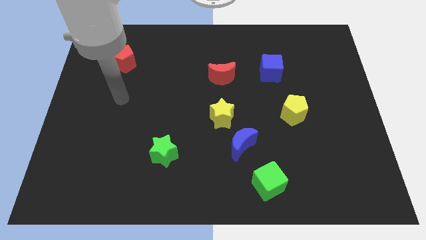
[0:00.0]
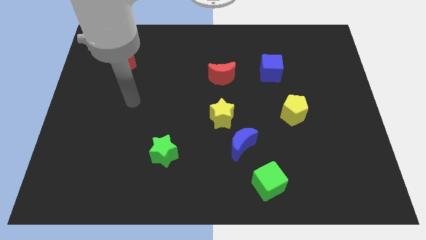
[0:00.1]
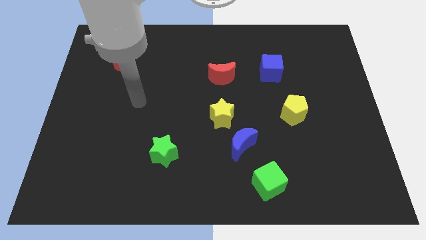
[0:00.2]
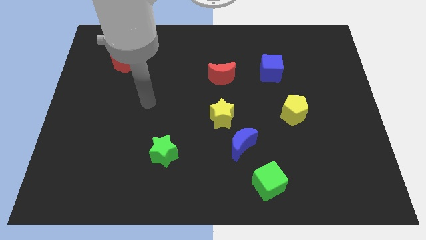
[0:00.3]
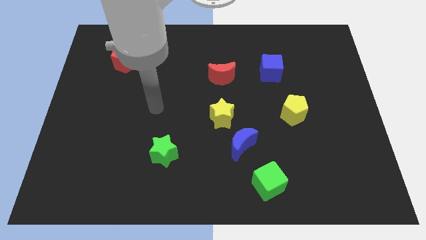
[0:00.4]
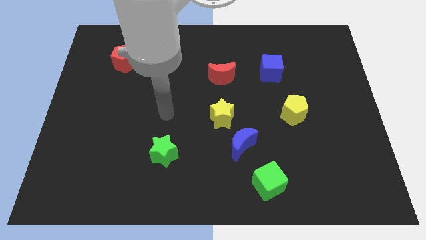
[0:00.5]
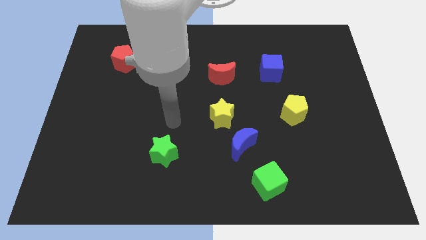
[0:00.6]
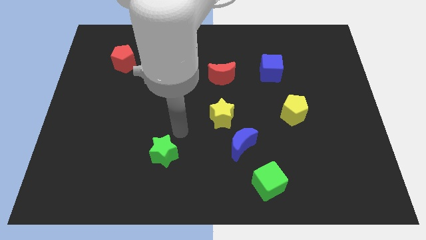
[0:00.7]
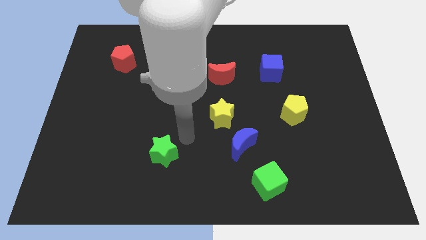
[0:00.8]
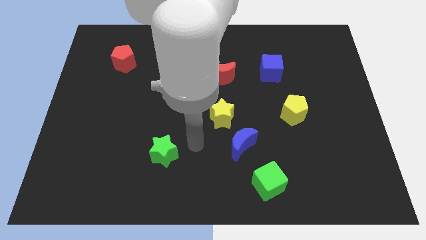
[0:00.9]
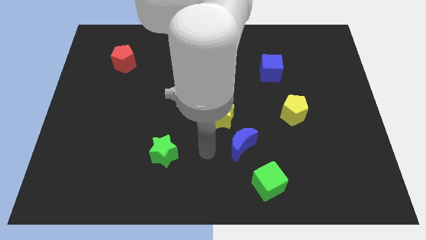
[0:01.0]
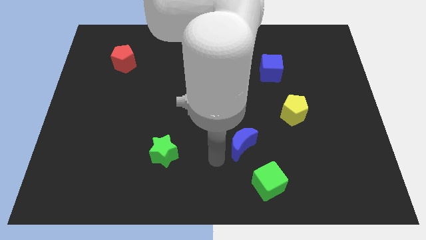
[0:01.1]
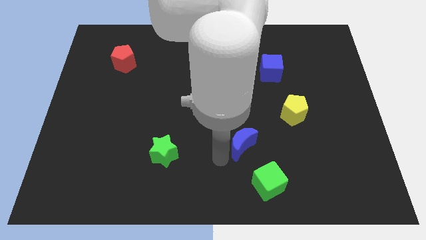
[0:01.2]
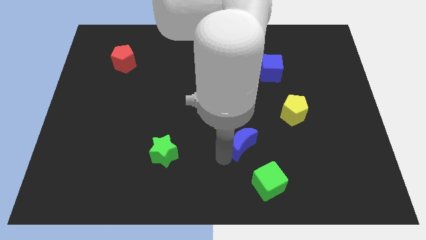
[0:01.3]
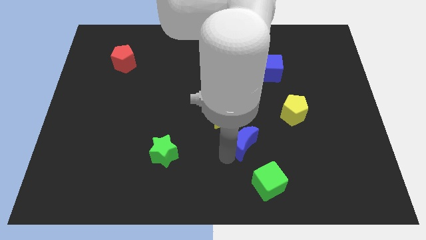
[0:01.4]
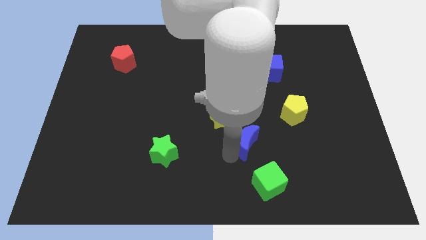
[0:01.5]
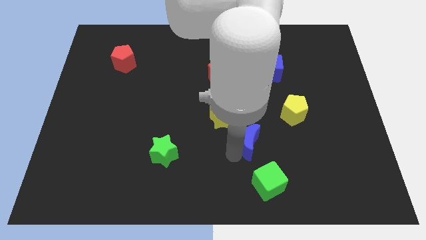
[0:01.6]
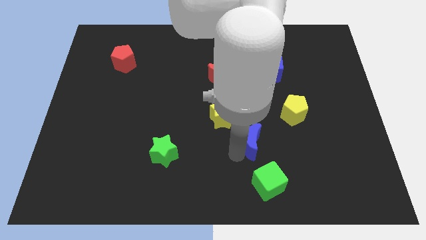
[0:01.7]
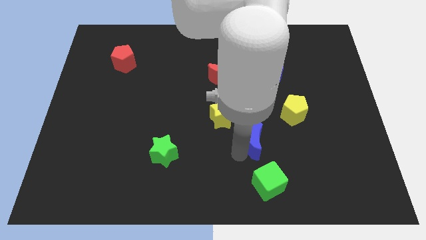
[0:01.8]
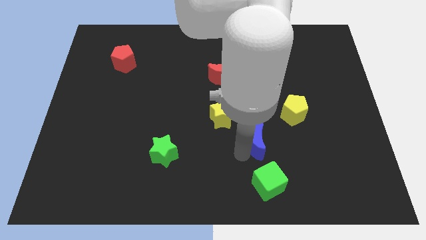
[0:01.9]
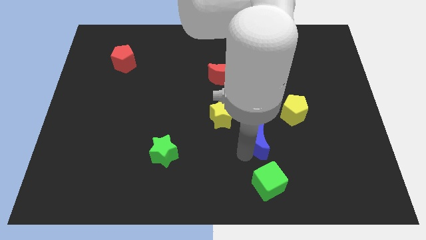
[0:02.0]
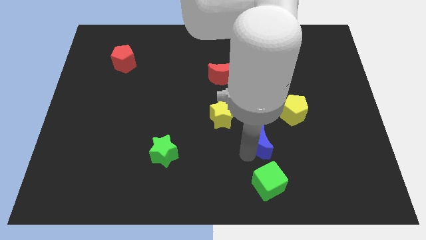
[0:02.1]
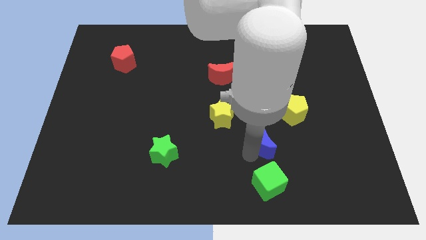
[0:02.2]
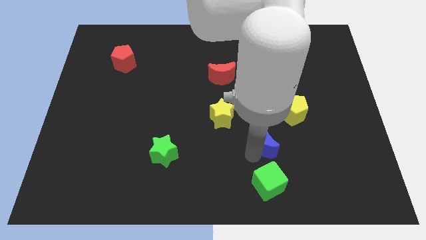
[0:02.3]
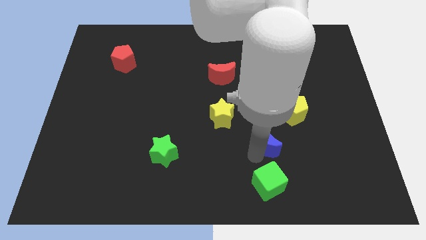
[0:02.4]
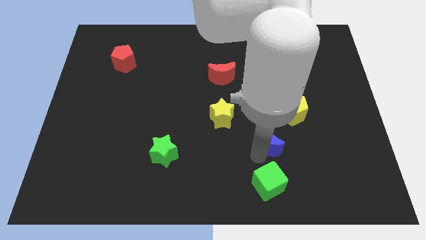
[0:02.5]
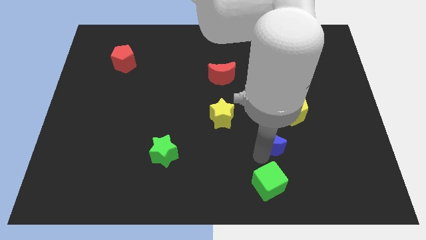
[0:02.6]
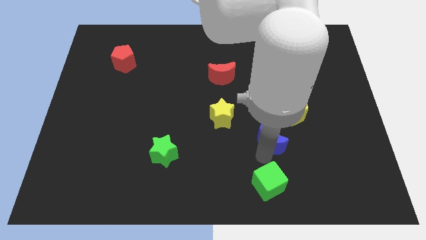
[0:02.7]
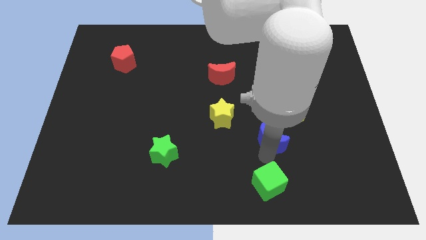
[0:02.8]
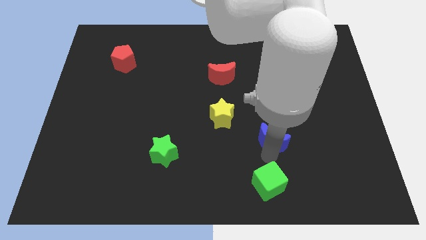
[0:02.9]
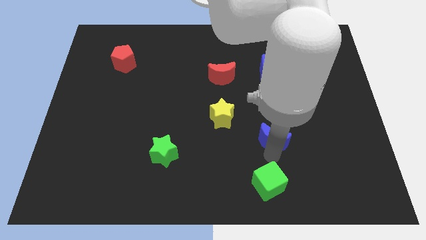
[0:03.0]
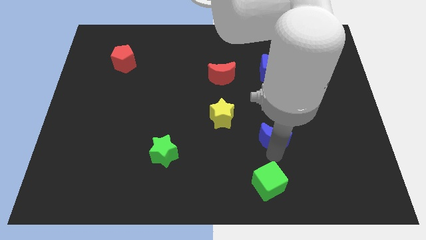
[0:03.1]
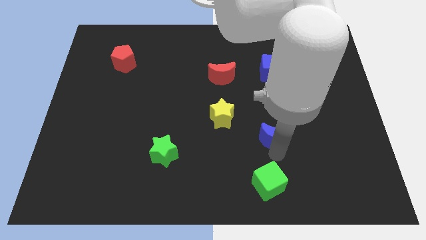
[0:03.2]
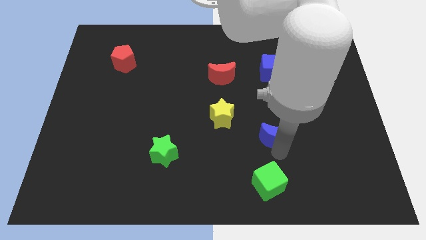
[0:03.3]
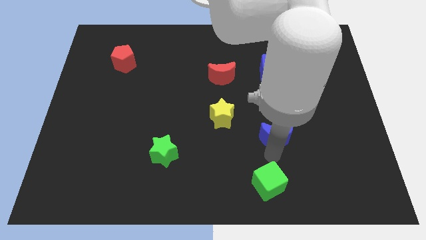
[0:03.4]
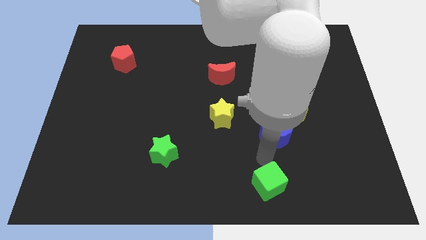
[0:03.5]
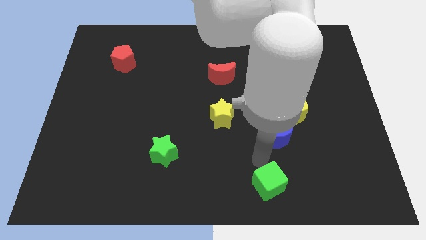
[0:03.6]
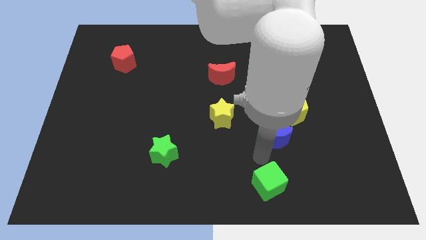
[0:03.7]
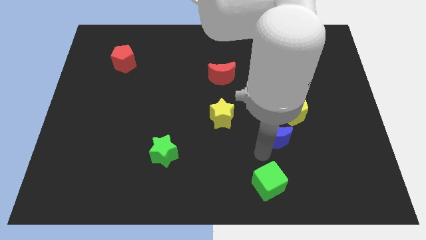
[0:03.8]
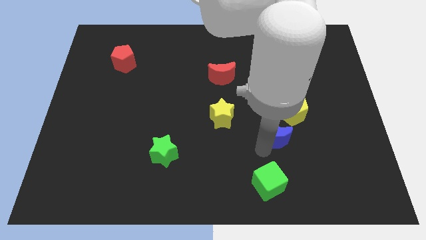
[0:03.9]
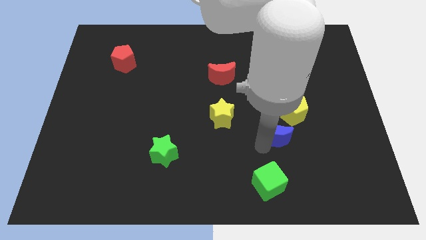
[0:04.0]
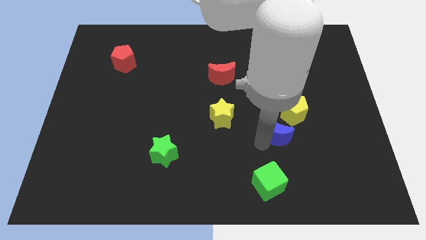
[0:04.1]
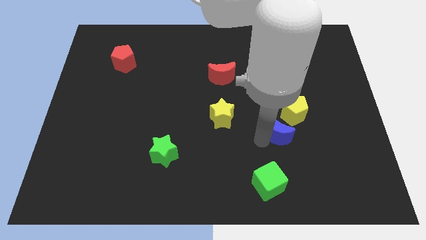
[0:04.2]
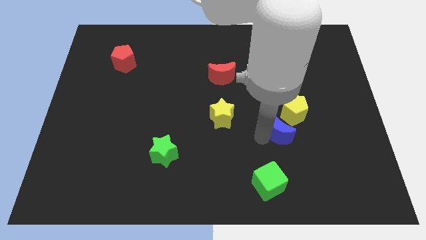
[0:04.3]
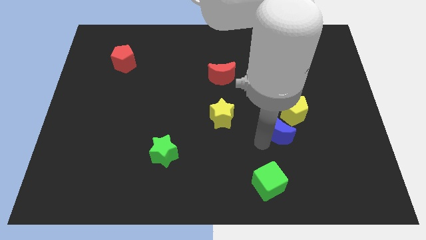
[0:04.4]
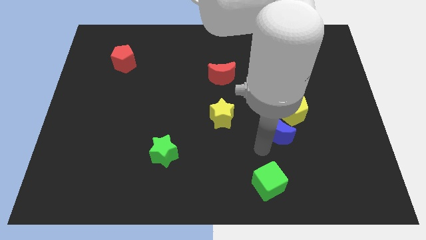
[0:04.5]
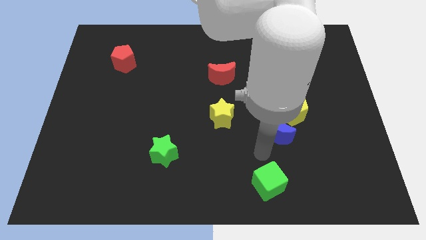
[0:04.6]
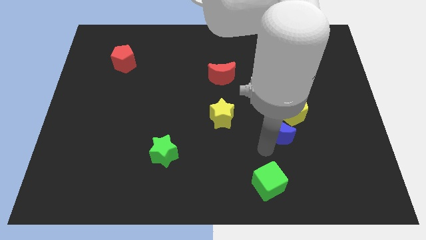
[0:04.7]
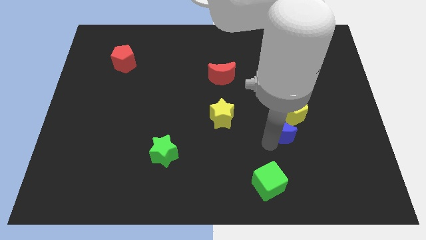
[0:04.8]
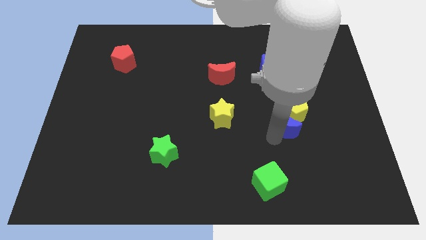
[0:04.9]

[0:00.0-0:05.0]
push the blue moon towards the yellow pentagon

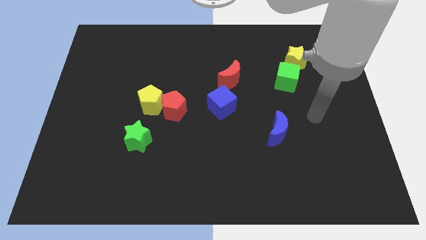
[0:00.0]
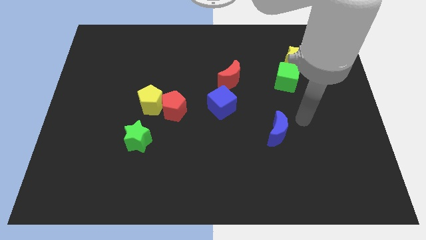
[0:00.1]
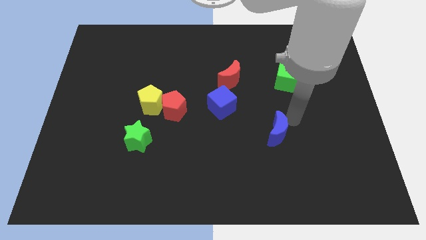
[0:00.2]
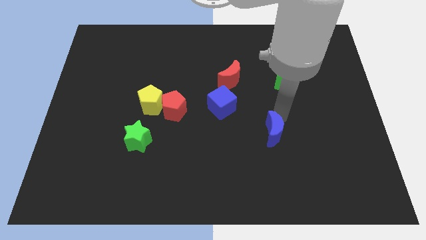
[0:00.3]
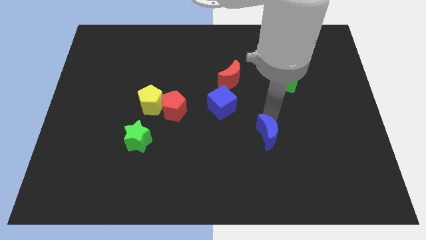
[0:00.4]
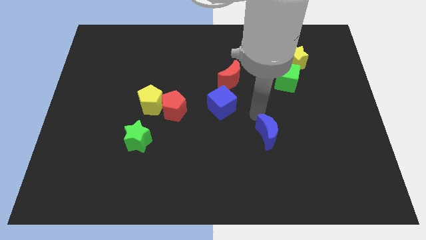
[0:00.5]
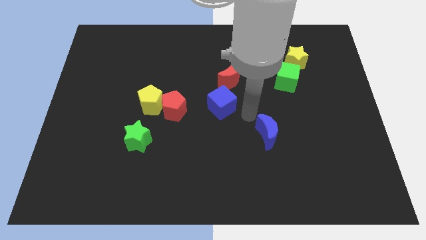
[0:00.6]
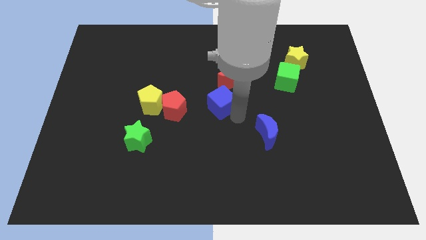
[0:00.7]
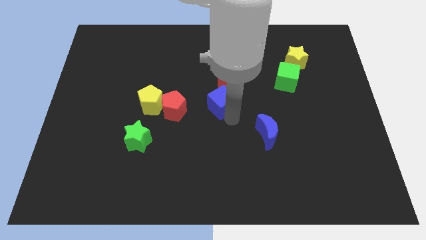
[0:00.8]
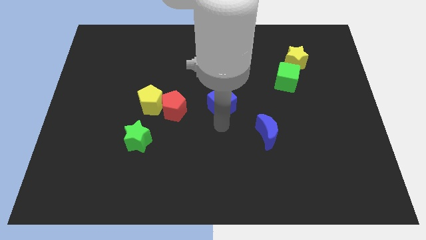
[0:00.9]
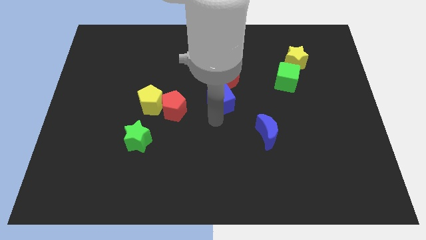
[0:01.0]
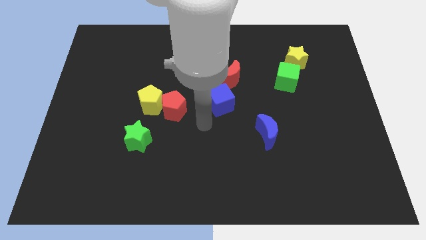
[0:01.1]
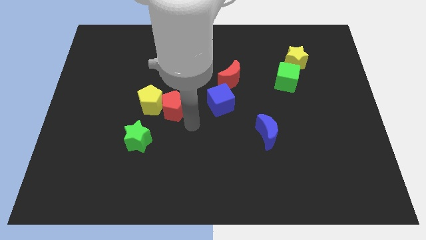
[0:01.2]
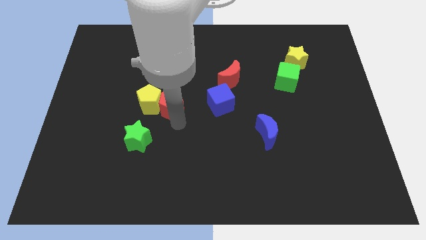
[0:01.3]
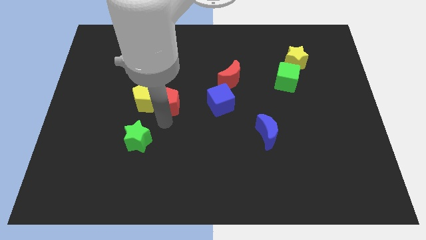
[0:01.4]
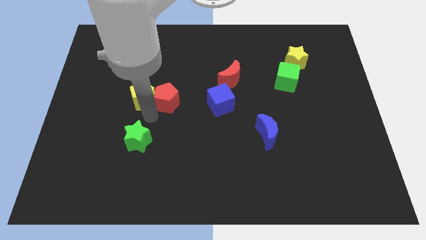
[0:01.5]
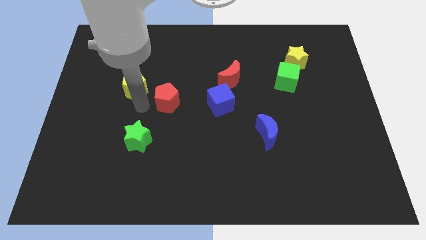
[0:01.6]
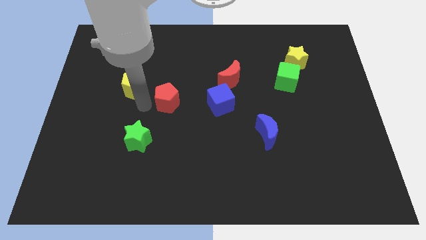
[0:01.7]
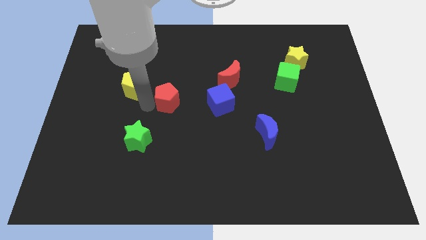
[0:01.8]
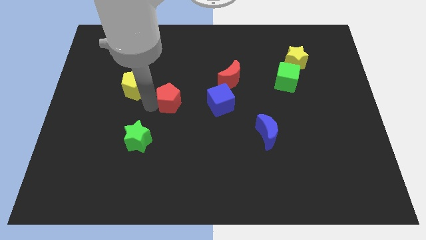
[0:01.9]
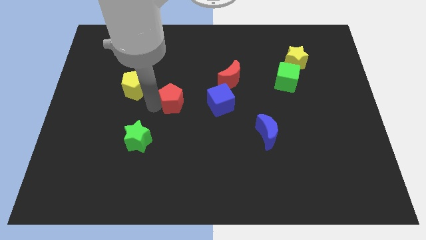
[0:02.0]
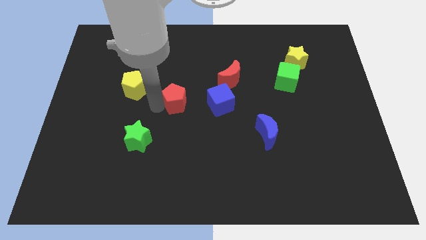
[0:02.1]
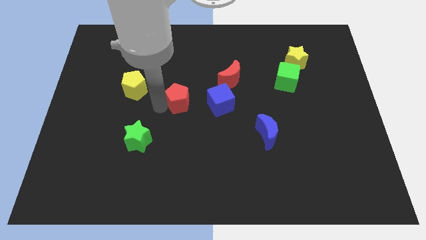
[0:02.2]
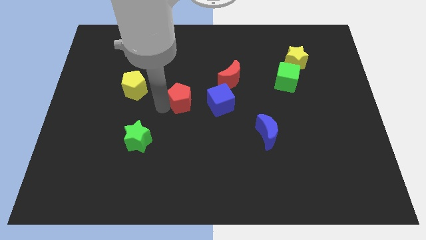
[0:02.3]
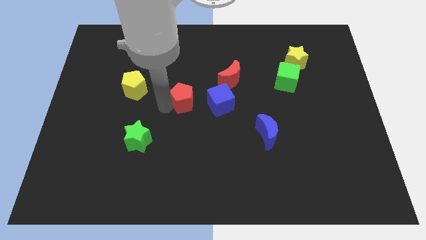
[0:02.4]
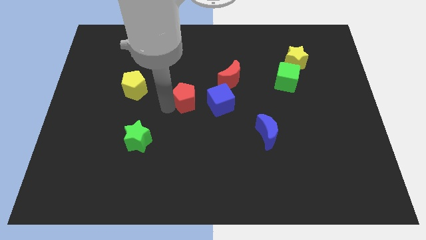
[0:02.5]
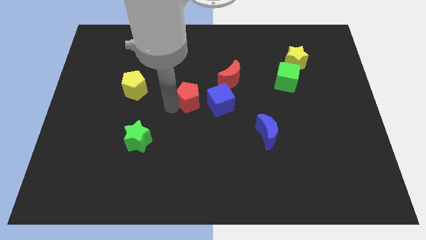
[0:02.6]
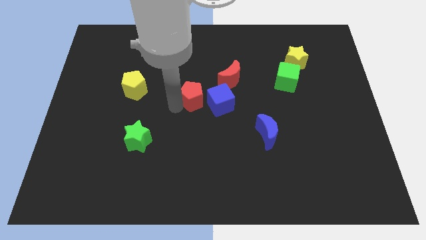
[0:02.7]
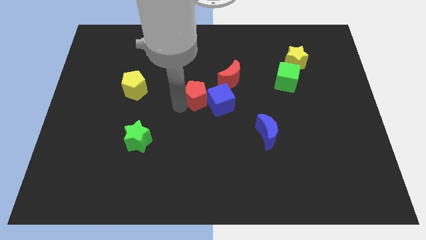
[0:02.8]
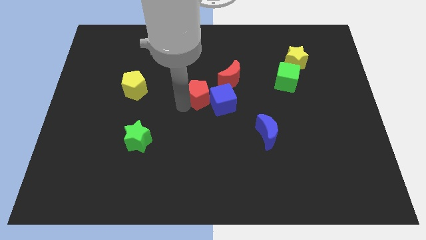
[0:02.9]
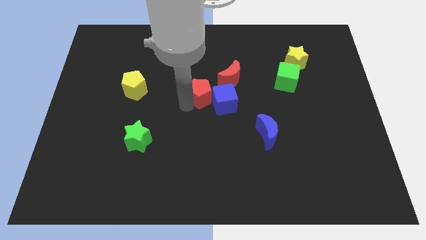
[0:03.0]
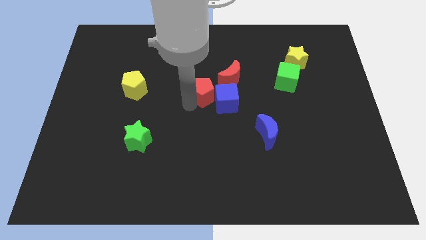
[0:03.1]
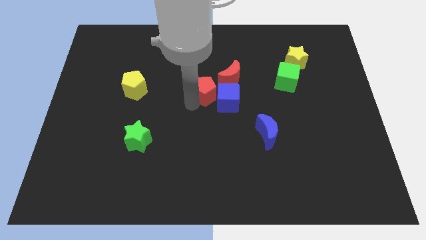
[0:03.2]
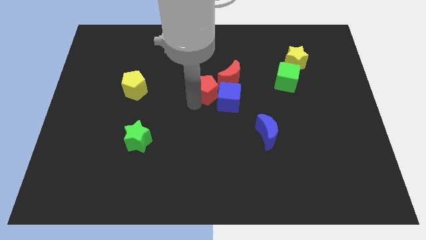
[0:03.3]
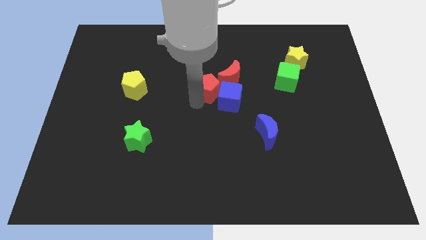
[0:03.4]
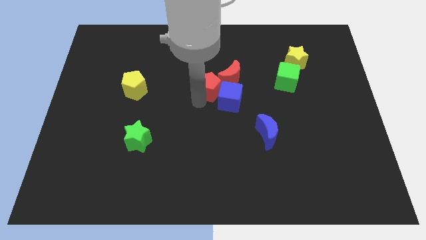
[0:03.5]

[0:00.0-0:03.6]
push the red pentagon towards the red moon
